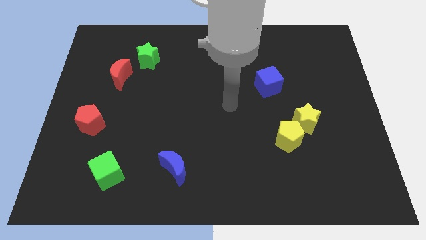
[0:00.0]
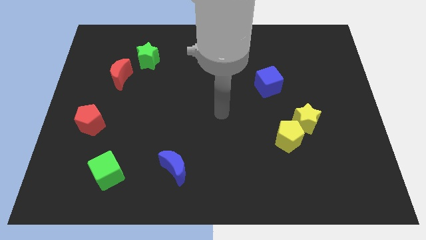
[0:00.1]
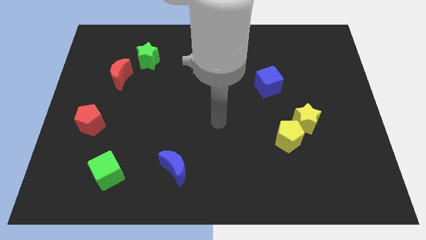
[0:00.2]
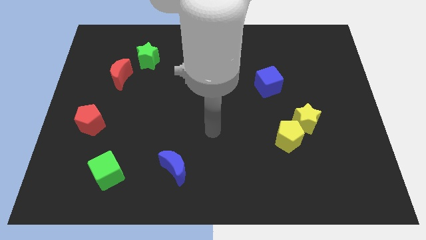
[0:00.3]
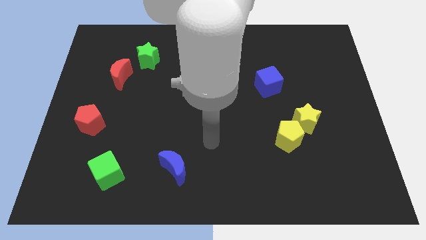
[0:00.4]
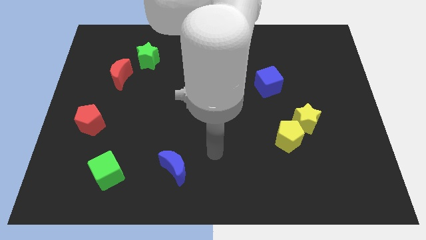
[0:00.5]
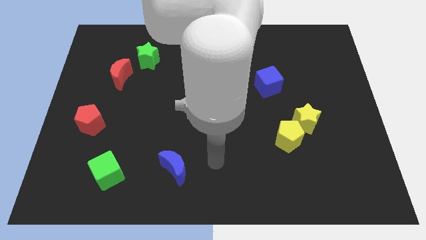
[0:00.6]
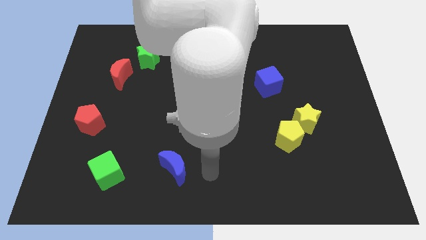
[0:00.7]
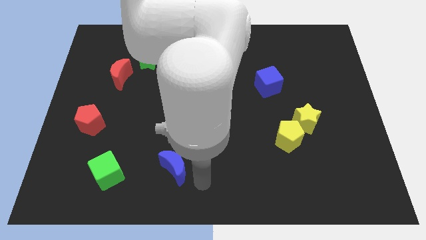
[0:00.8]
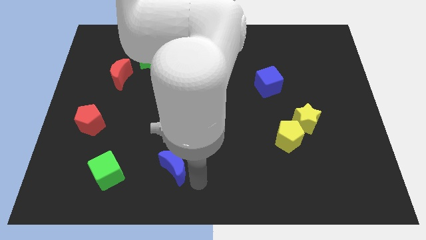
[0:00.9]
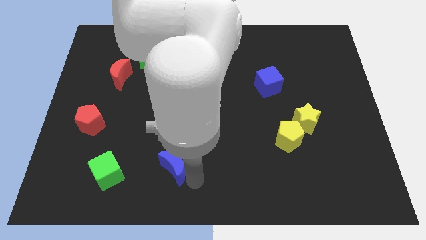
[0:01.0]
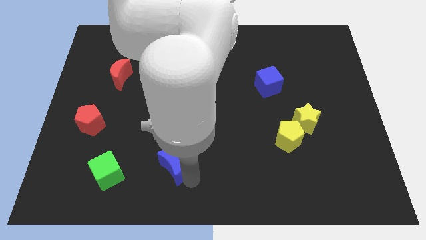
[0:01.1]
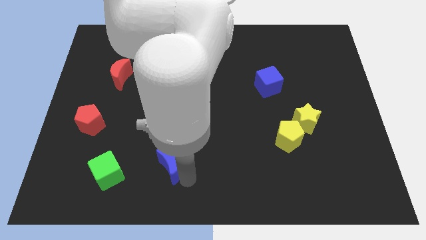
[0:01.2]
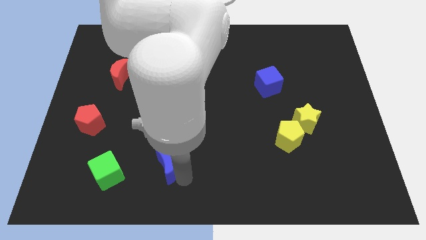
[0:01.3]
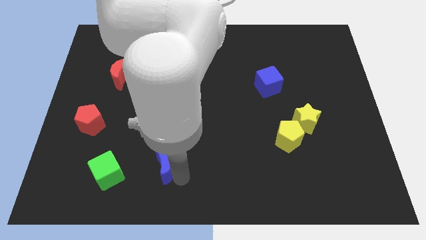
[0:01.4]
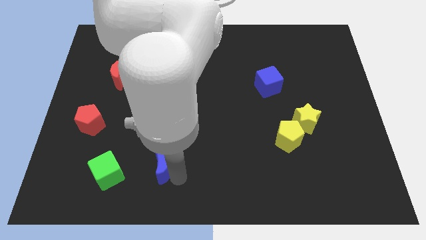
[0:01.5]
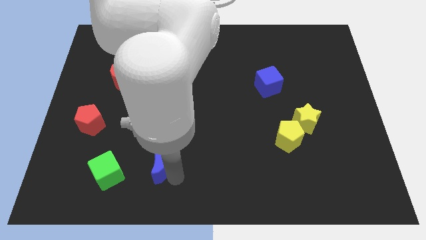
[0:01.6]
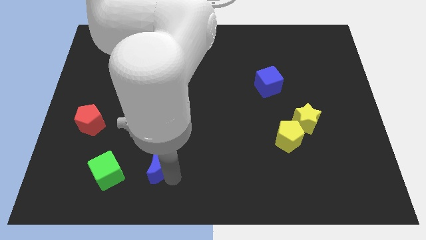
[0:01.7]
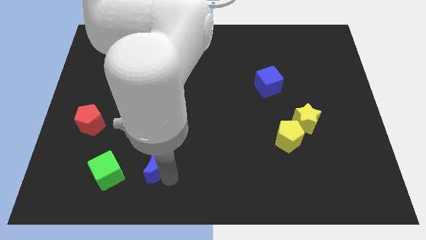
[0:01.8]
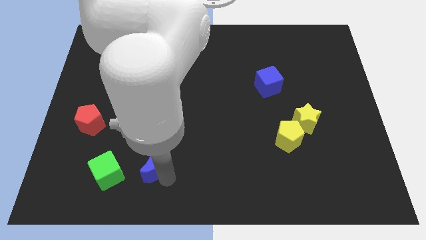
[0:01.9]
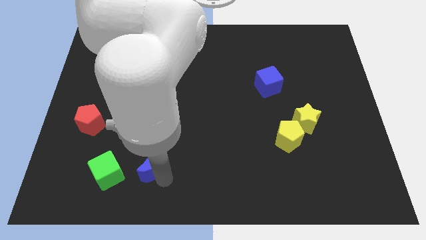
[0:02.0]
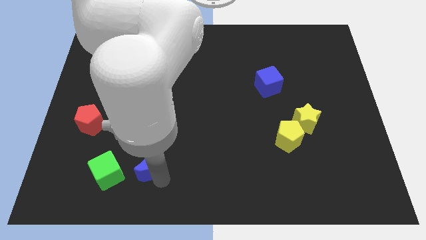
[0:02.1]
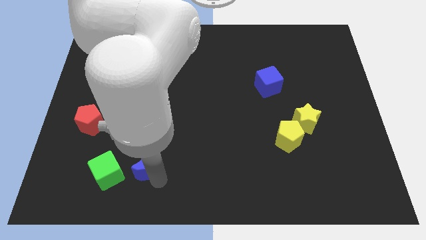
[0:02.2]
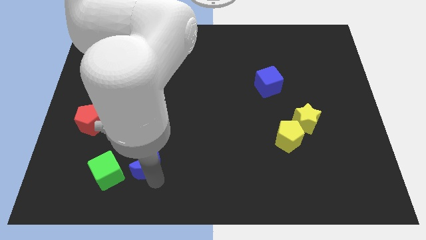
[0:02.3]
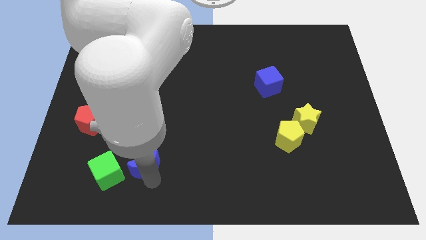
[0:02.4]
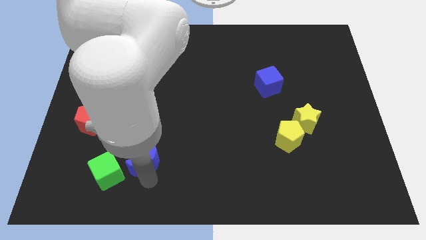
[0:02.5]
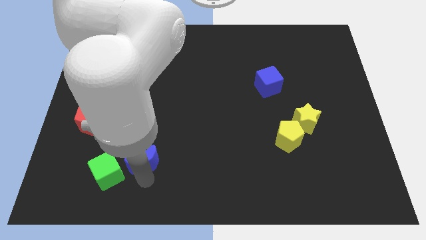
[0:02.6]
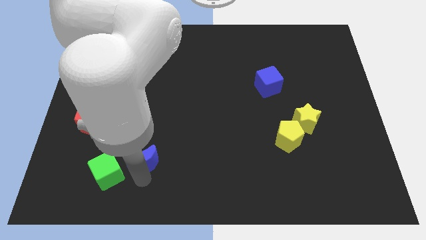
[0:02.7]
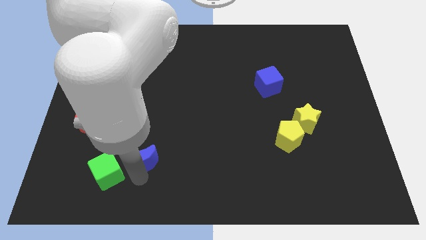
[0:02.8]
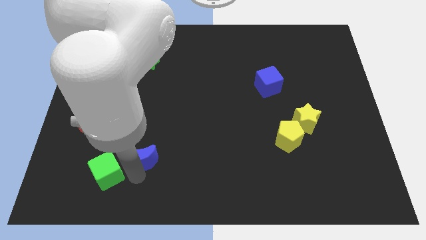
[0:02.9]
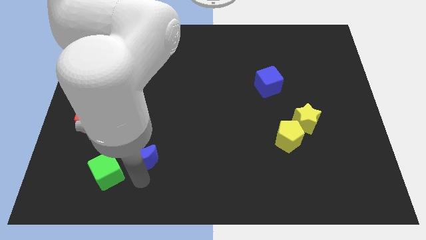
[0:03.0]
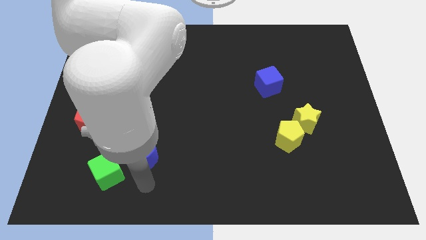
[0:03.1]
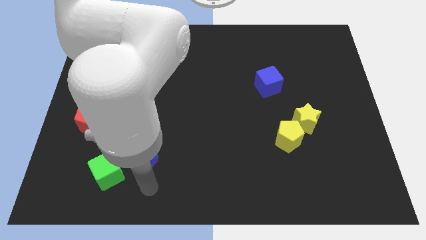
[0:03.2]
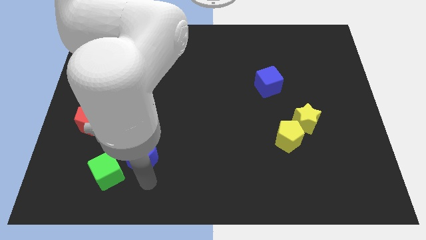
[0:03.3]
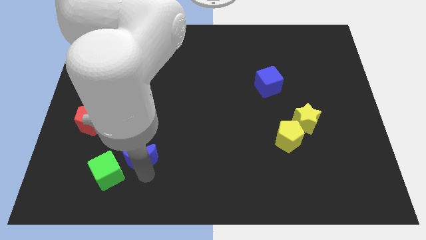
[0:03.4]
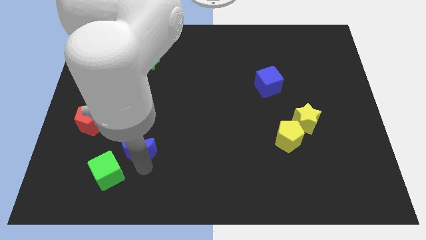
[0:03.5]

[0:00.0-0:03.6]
push the blue moon diagonally up and to the left a little bit

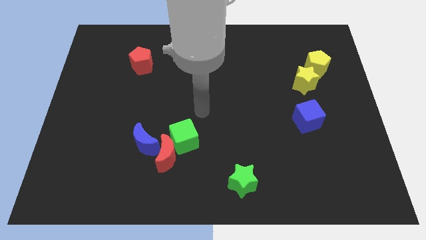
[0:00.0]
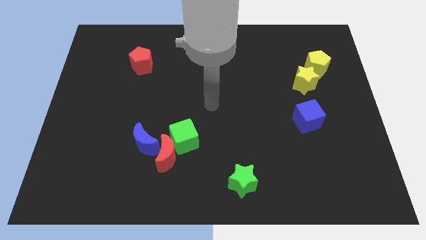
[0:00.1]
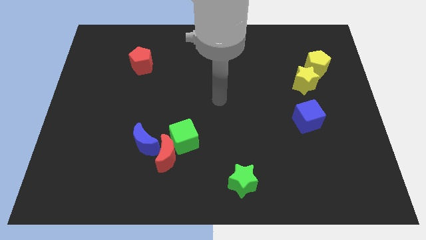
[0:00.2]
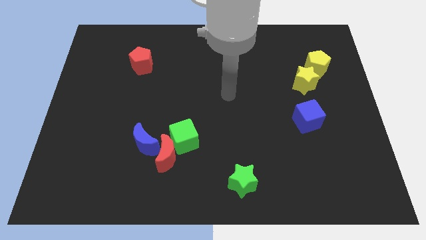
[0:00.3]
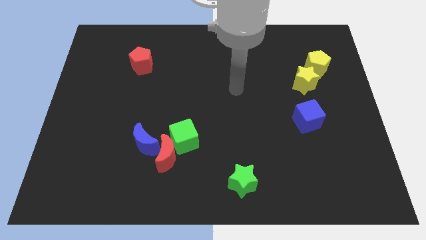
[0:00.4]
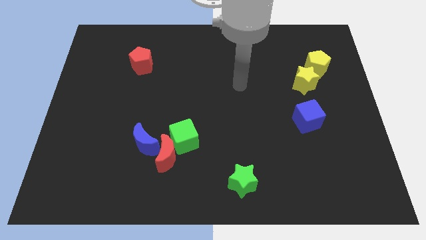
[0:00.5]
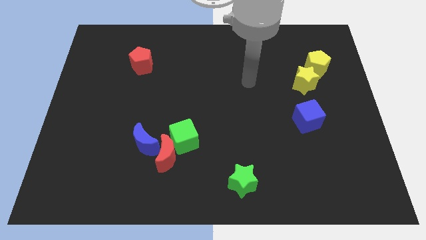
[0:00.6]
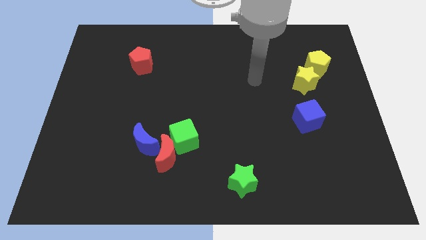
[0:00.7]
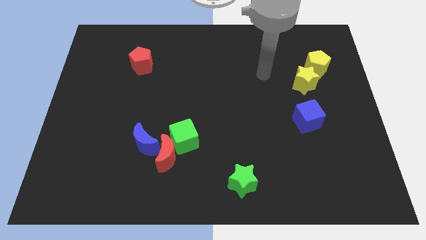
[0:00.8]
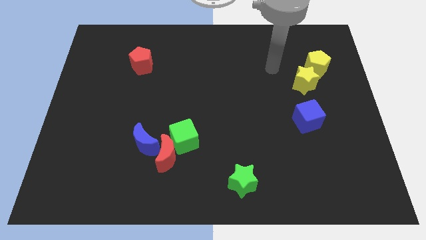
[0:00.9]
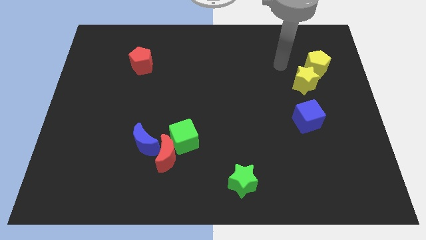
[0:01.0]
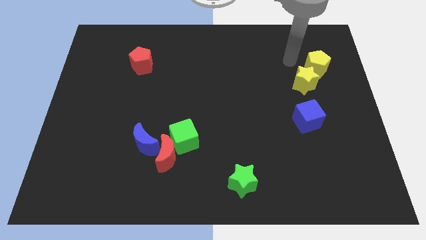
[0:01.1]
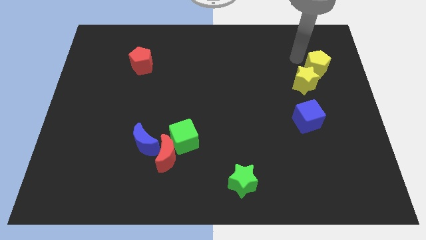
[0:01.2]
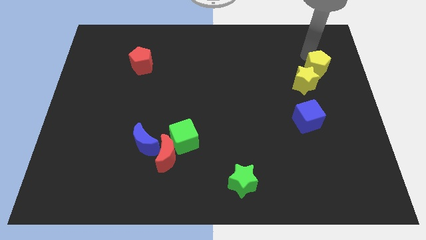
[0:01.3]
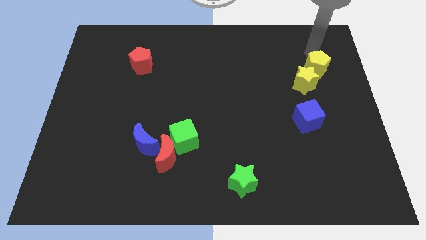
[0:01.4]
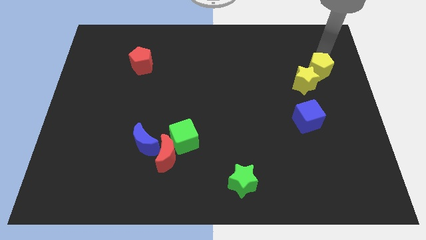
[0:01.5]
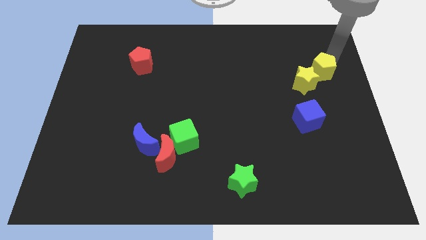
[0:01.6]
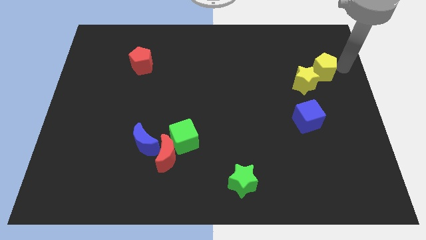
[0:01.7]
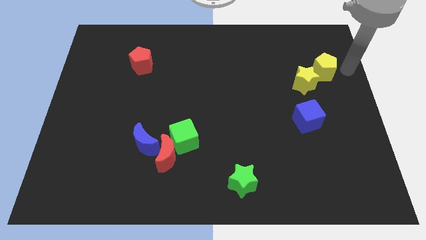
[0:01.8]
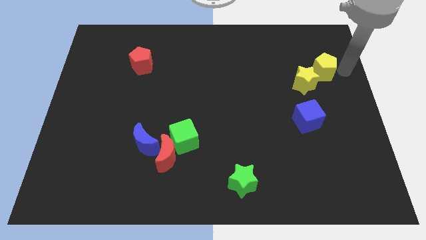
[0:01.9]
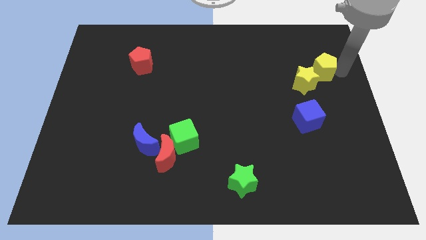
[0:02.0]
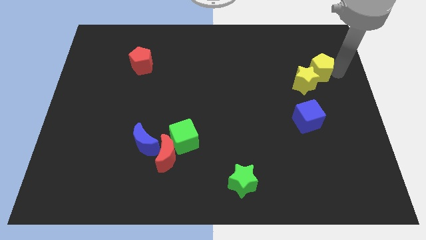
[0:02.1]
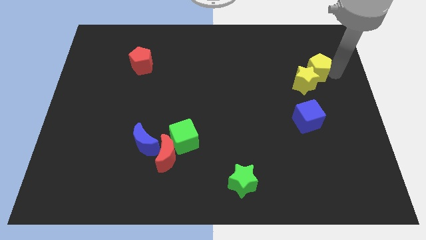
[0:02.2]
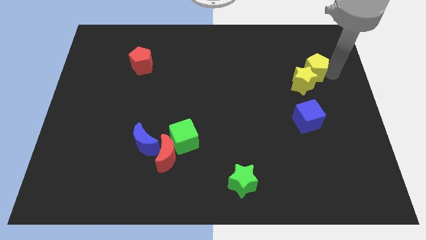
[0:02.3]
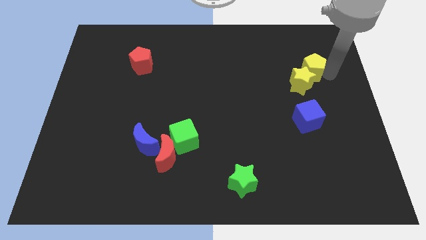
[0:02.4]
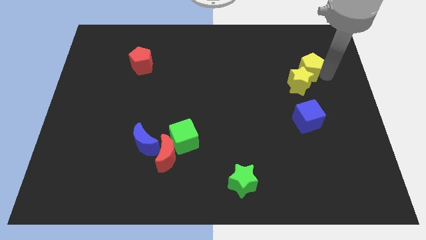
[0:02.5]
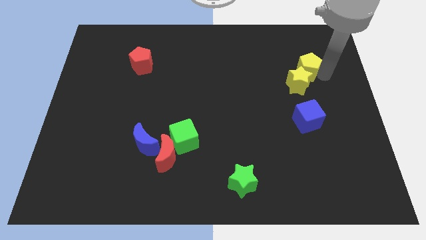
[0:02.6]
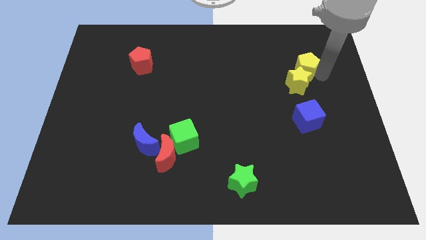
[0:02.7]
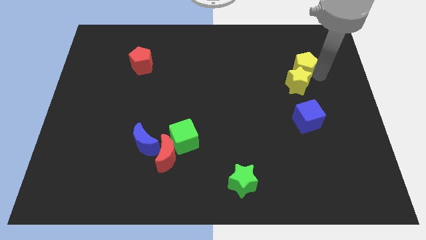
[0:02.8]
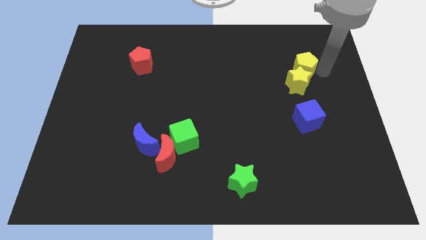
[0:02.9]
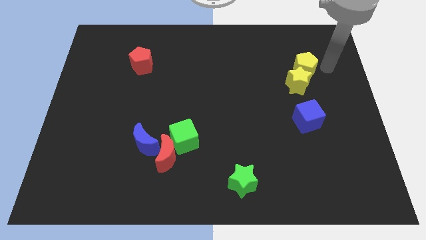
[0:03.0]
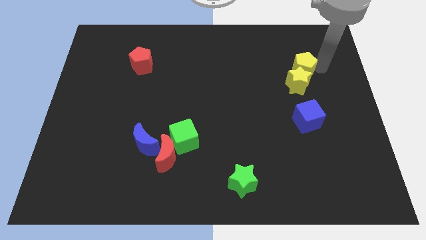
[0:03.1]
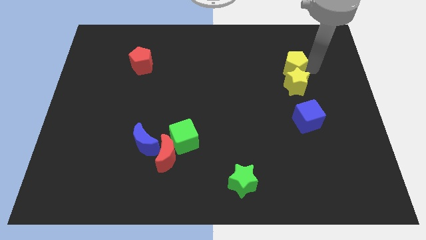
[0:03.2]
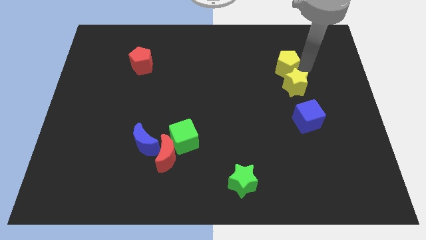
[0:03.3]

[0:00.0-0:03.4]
push the yellow pentagon left a little

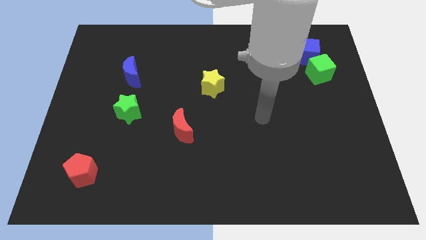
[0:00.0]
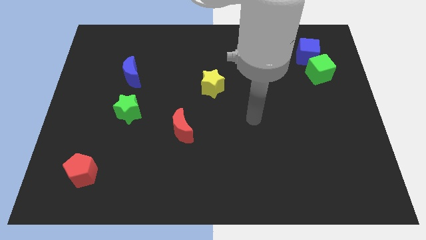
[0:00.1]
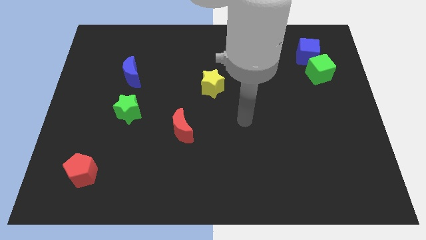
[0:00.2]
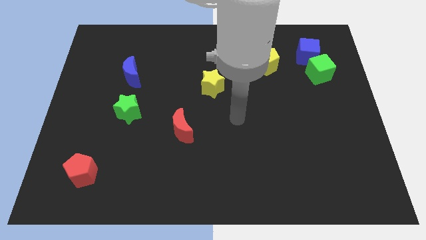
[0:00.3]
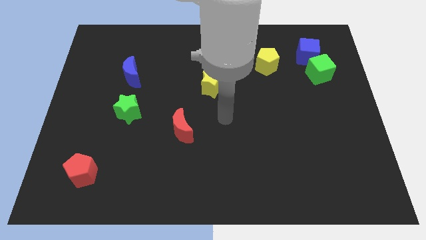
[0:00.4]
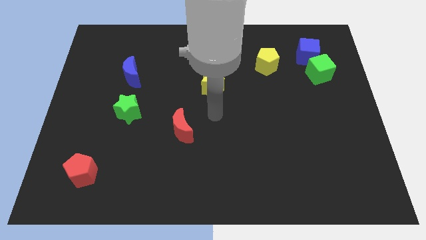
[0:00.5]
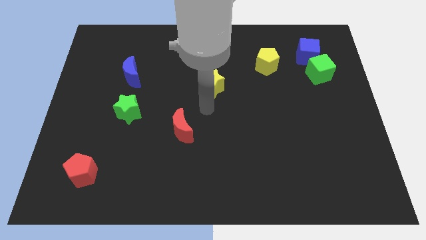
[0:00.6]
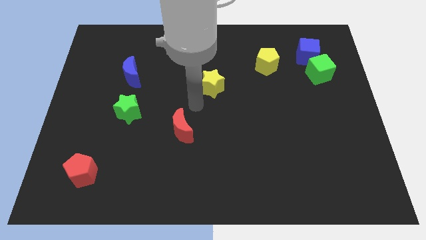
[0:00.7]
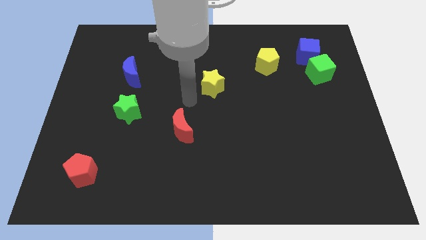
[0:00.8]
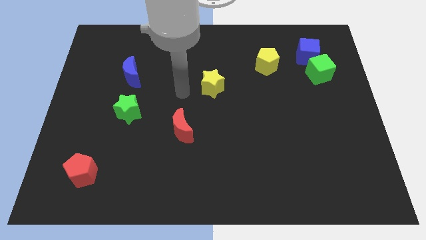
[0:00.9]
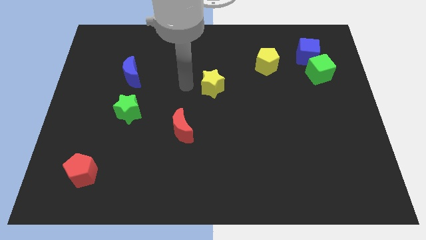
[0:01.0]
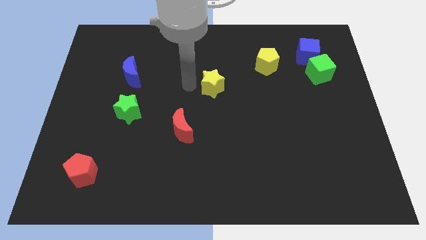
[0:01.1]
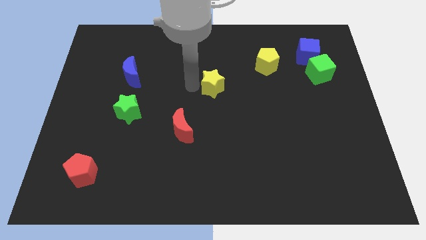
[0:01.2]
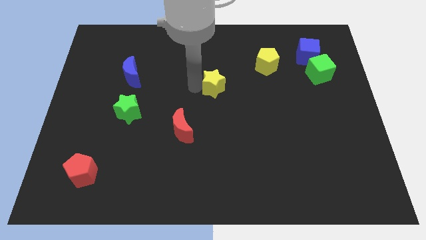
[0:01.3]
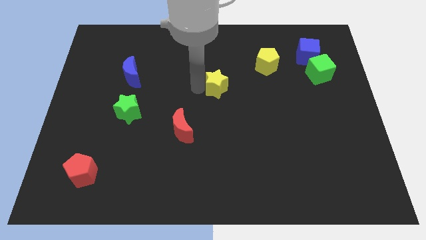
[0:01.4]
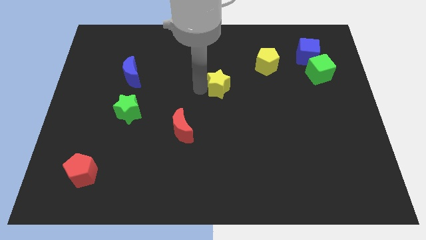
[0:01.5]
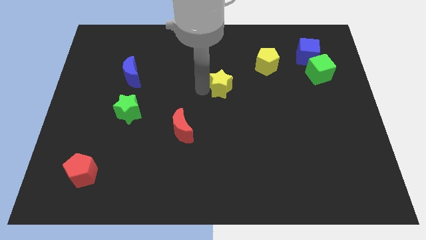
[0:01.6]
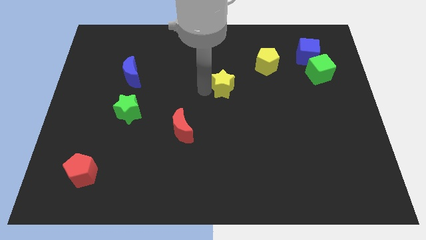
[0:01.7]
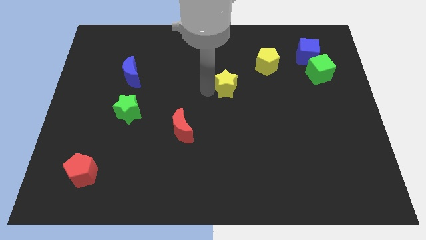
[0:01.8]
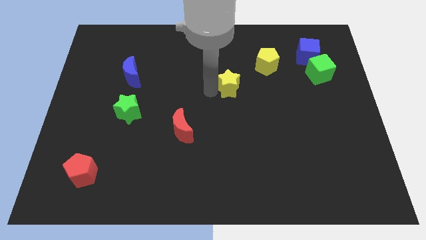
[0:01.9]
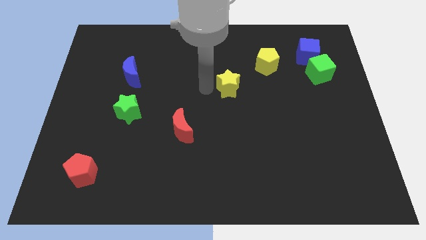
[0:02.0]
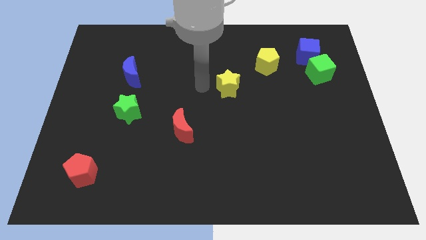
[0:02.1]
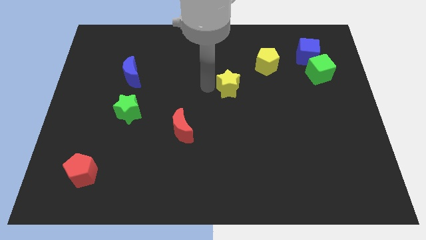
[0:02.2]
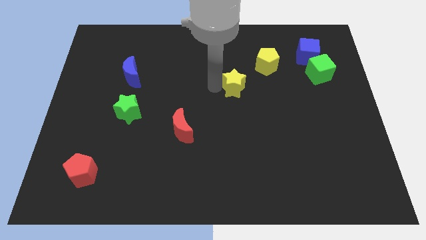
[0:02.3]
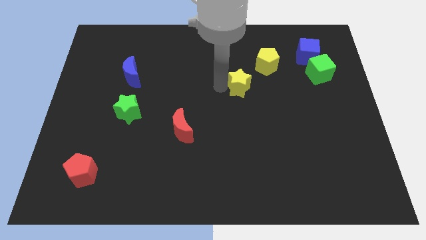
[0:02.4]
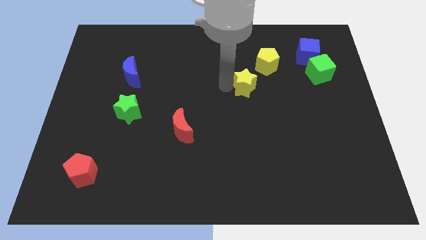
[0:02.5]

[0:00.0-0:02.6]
slightly move the yellow star right
